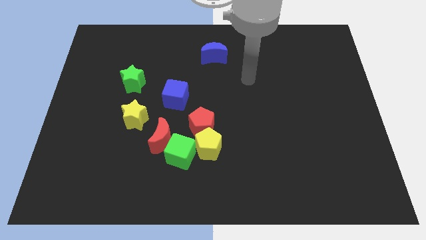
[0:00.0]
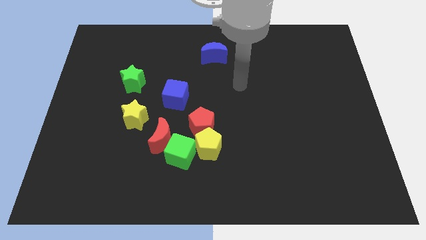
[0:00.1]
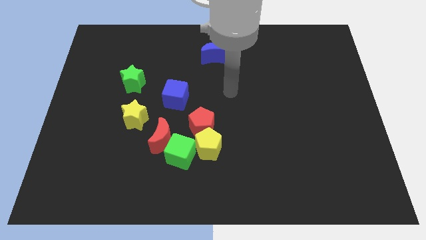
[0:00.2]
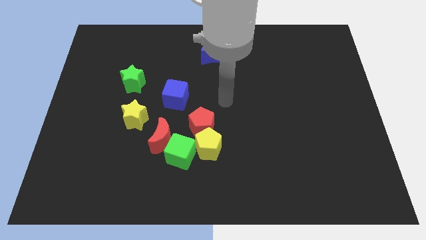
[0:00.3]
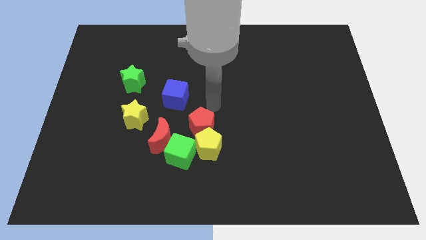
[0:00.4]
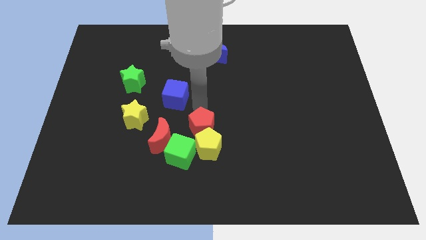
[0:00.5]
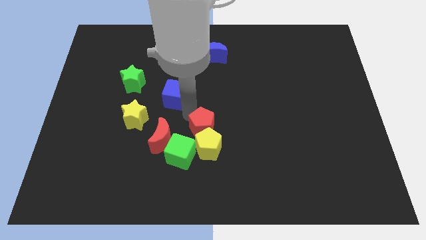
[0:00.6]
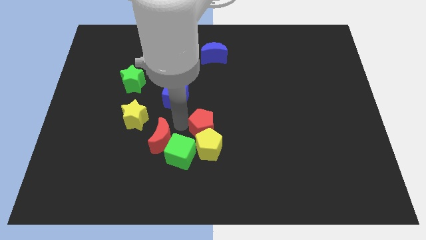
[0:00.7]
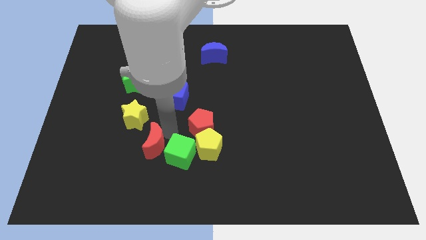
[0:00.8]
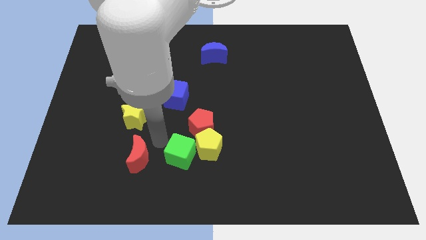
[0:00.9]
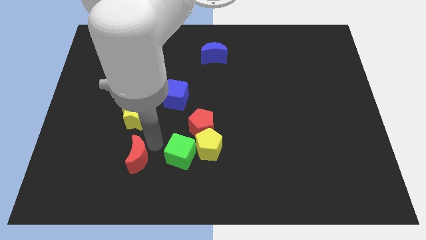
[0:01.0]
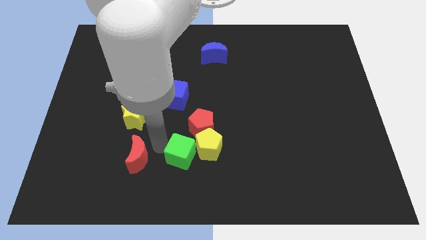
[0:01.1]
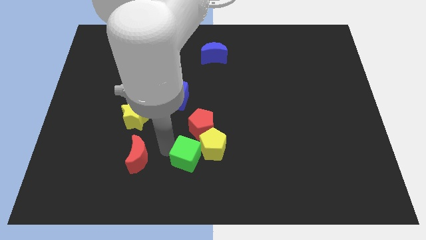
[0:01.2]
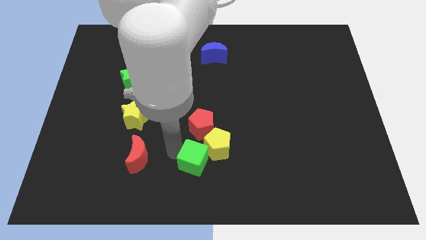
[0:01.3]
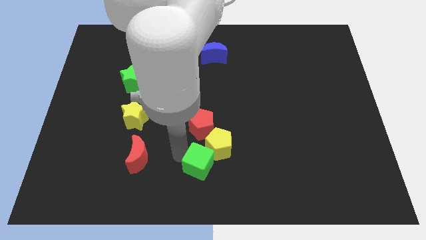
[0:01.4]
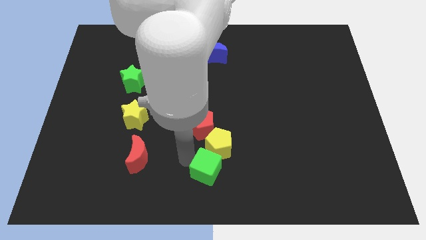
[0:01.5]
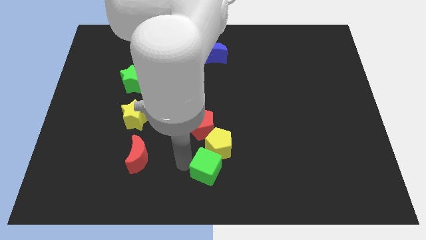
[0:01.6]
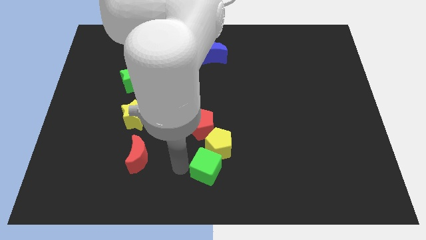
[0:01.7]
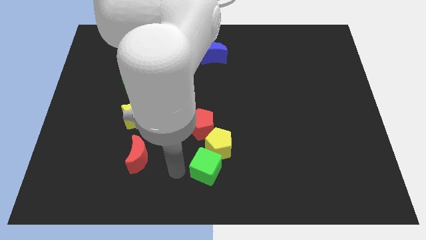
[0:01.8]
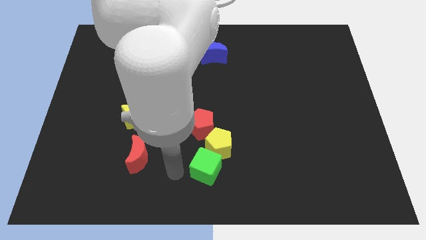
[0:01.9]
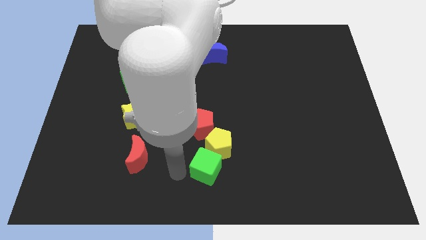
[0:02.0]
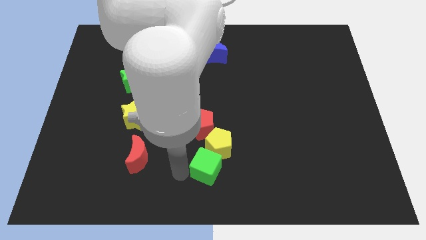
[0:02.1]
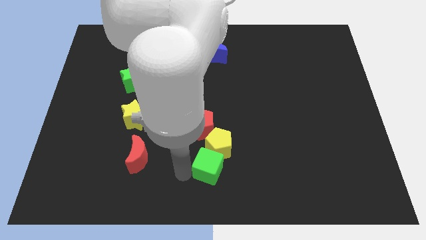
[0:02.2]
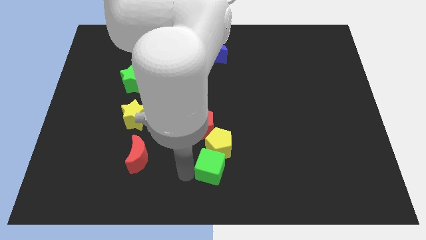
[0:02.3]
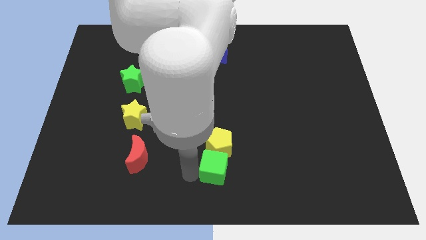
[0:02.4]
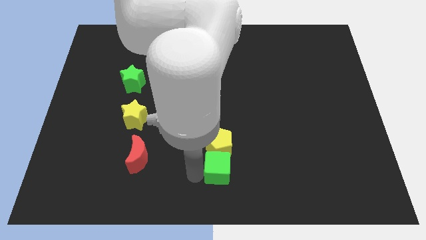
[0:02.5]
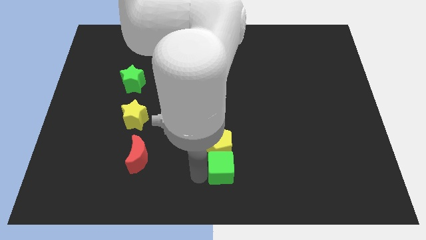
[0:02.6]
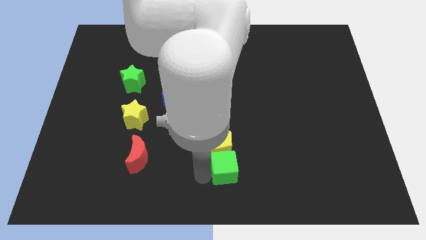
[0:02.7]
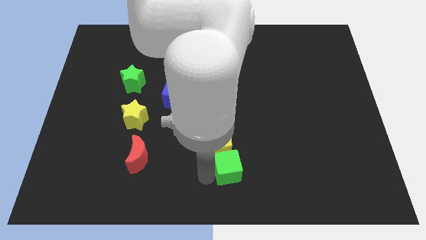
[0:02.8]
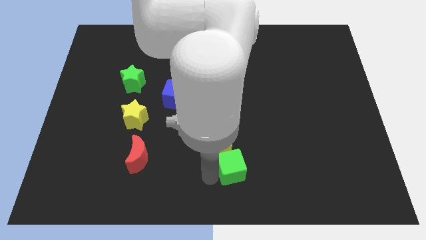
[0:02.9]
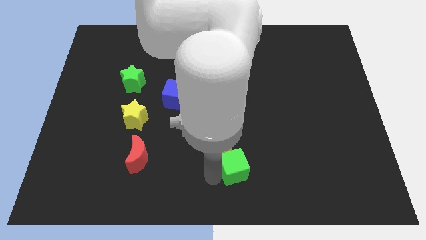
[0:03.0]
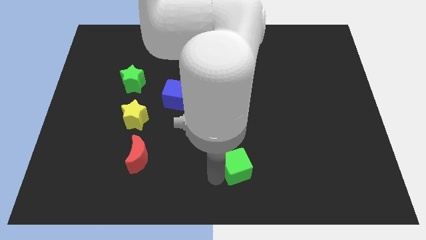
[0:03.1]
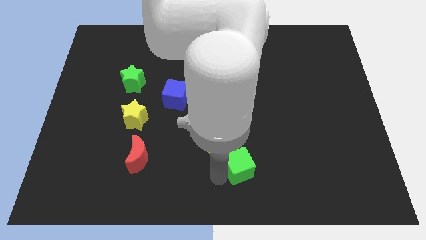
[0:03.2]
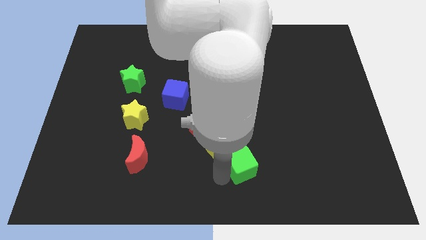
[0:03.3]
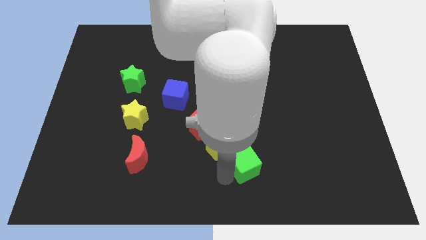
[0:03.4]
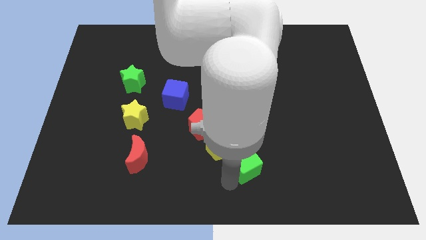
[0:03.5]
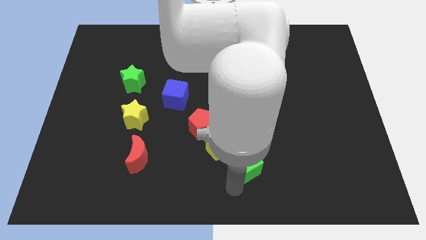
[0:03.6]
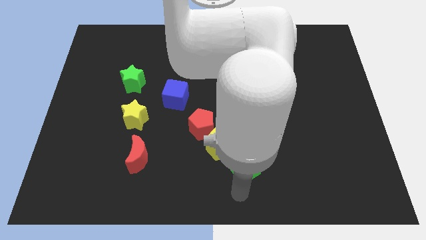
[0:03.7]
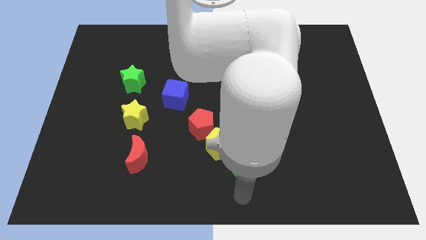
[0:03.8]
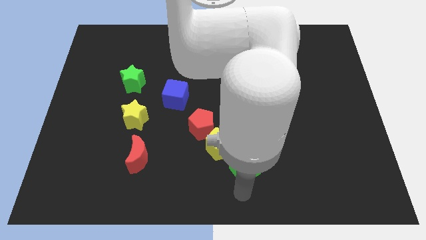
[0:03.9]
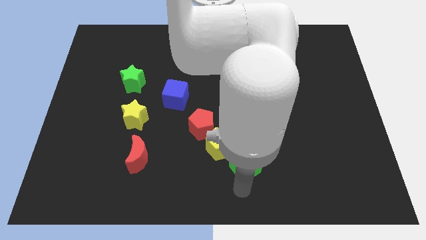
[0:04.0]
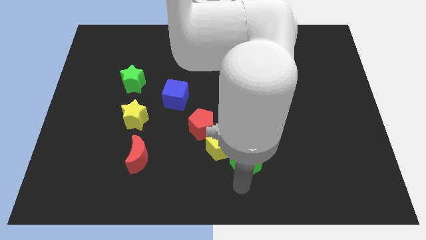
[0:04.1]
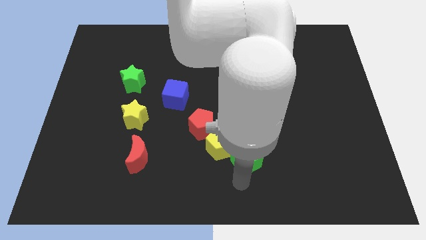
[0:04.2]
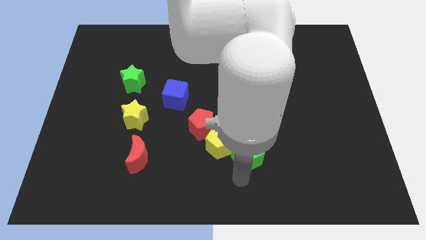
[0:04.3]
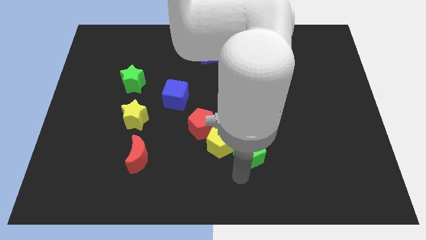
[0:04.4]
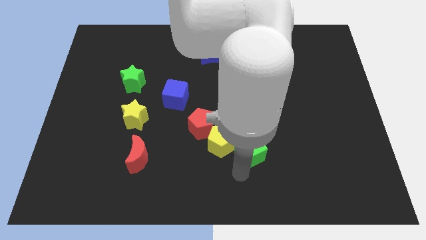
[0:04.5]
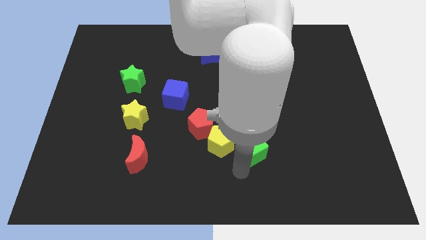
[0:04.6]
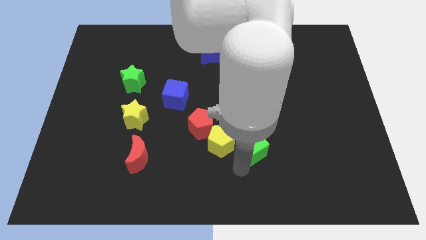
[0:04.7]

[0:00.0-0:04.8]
slightly move the green cube diagonally upwards and right

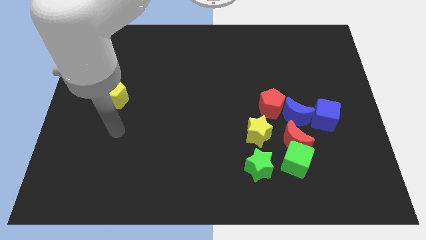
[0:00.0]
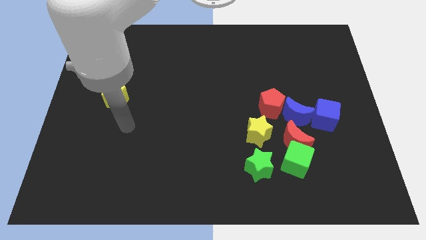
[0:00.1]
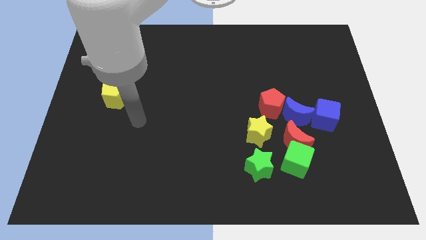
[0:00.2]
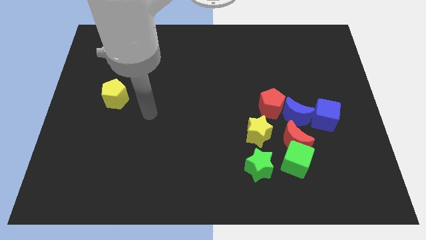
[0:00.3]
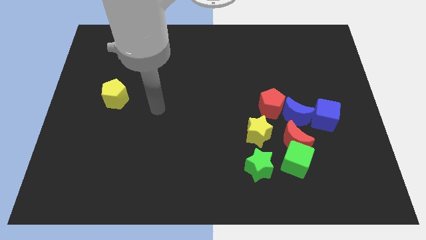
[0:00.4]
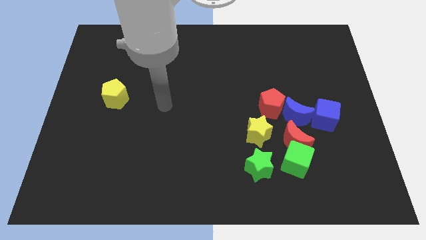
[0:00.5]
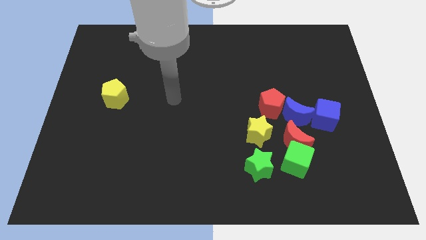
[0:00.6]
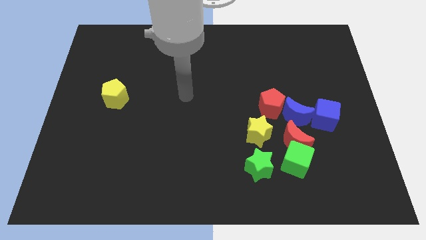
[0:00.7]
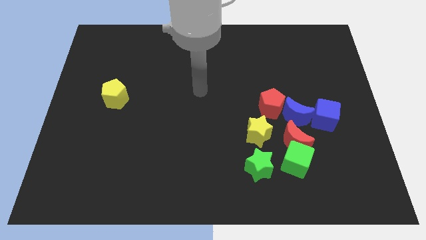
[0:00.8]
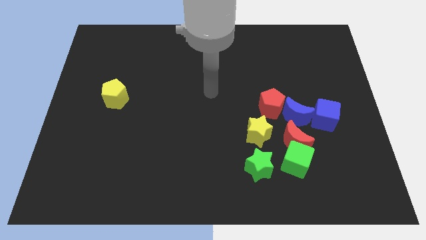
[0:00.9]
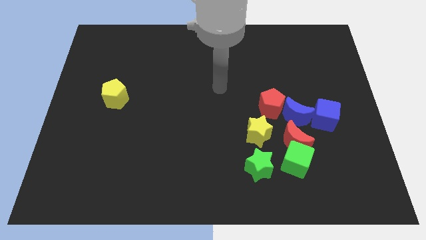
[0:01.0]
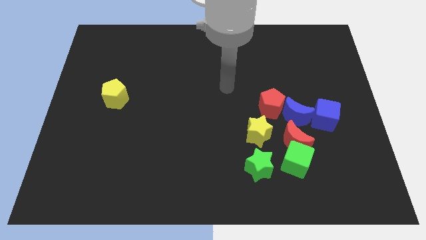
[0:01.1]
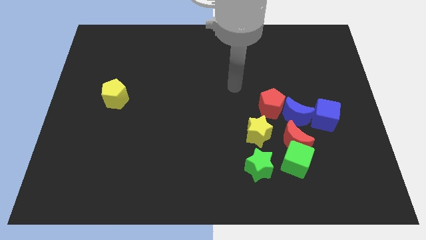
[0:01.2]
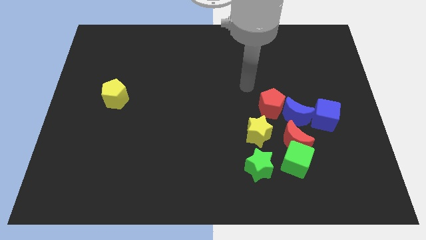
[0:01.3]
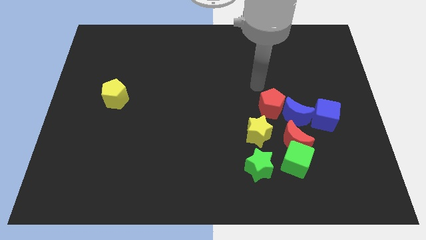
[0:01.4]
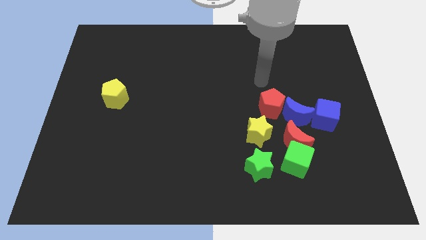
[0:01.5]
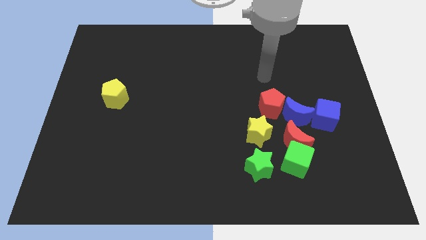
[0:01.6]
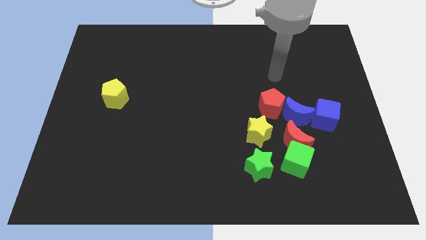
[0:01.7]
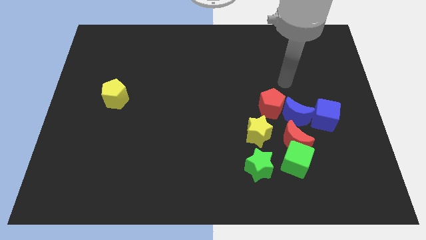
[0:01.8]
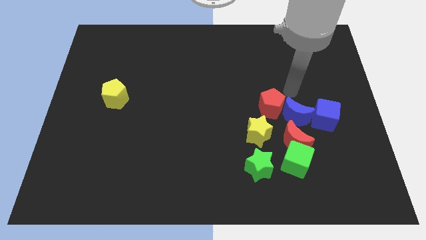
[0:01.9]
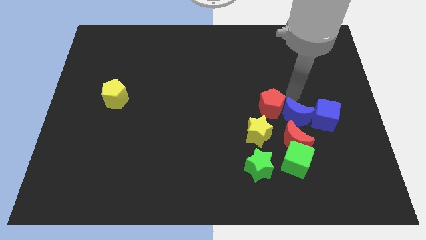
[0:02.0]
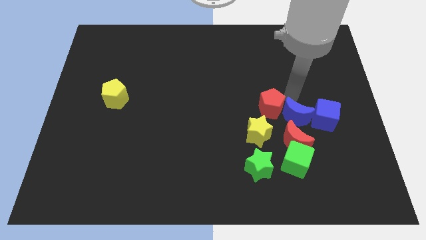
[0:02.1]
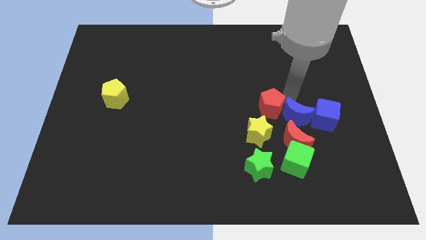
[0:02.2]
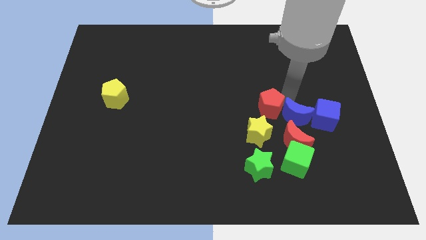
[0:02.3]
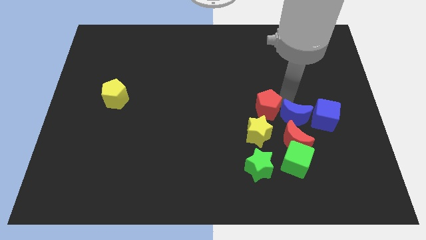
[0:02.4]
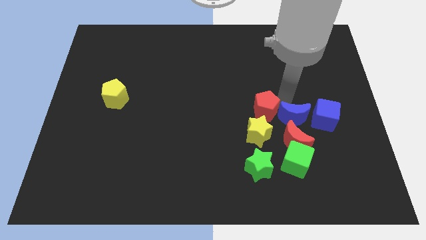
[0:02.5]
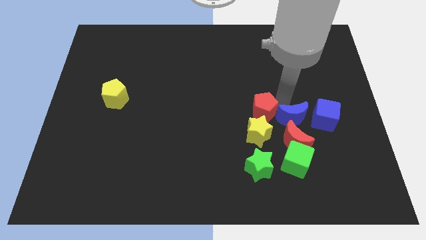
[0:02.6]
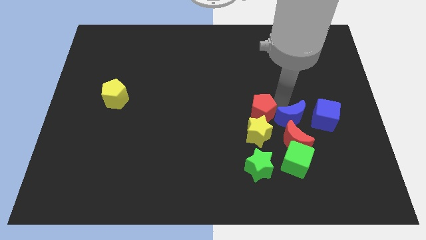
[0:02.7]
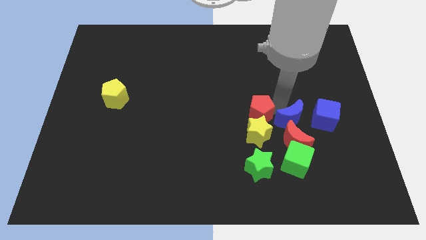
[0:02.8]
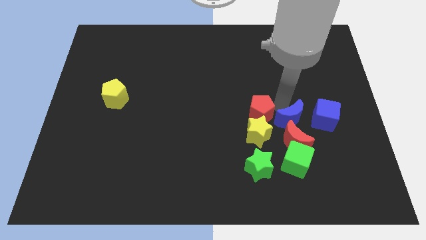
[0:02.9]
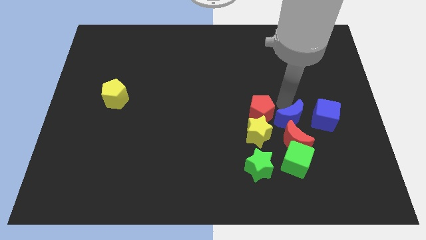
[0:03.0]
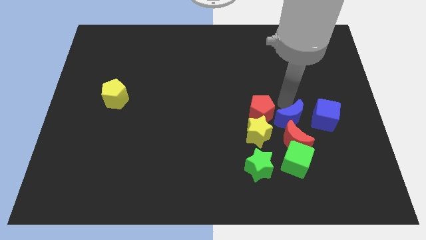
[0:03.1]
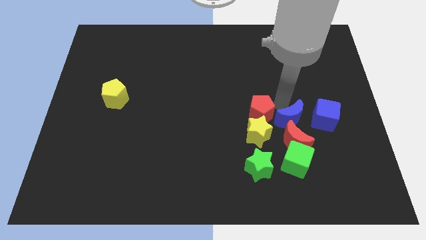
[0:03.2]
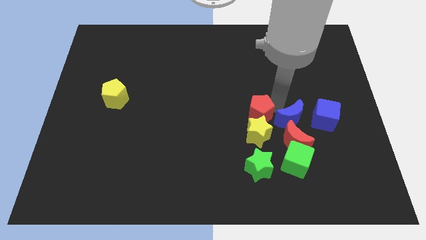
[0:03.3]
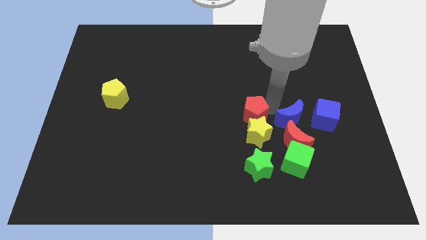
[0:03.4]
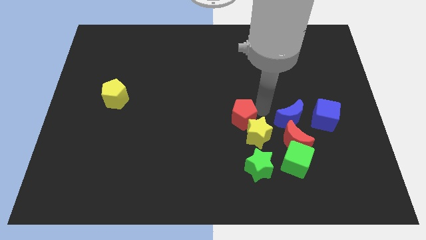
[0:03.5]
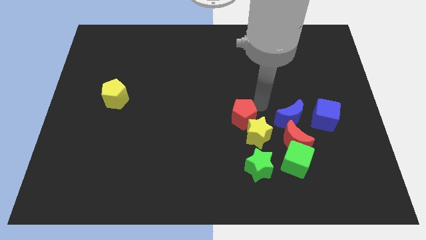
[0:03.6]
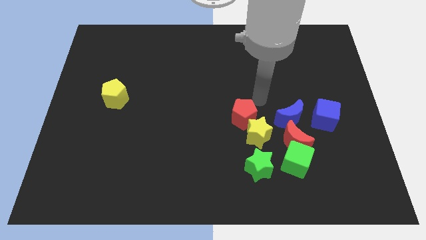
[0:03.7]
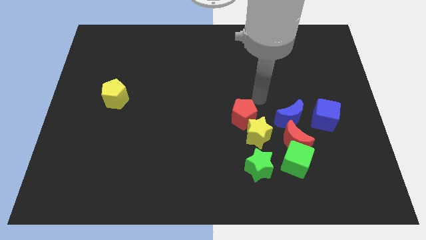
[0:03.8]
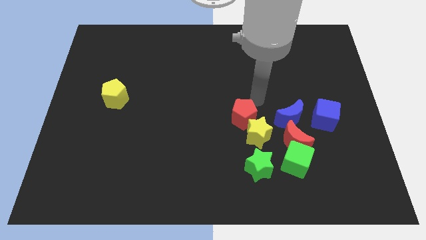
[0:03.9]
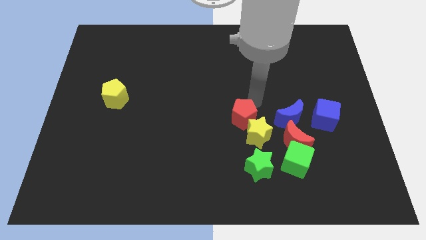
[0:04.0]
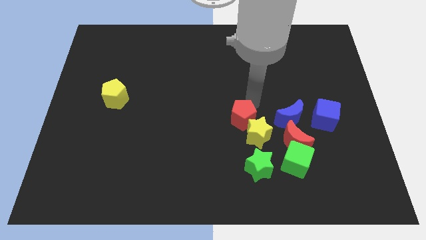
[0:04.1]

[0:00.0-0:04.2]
move the red pentagon down and then to the left slightly
